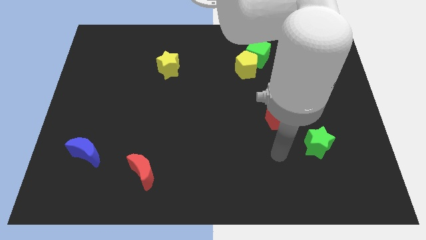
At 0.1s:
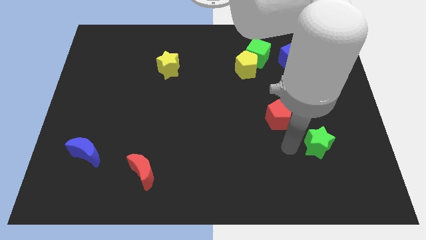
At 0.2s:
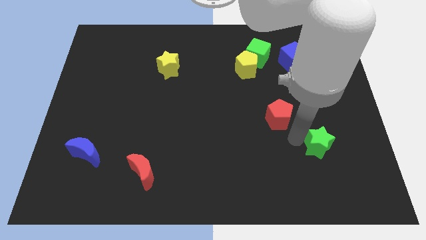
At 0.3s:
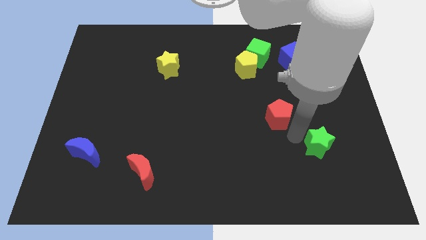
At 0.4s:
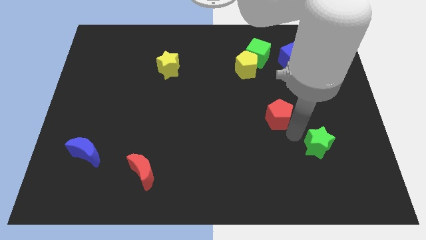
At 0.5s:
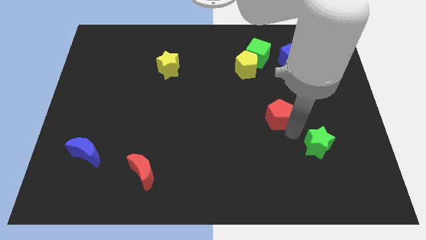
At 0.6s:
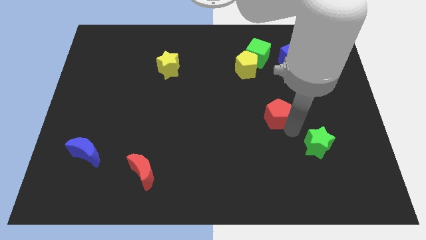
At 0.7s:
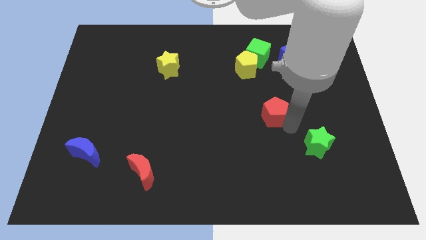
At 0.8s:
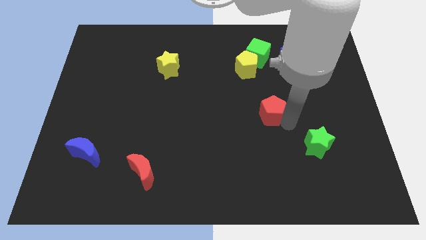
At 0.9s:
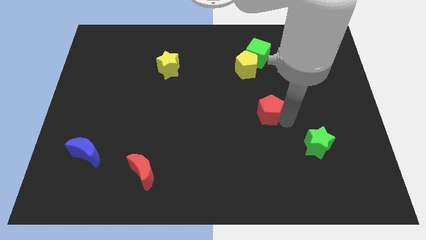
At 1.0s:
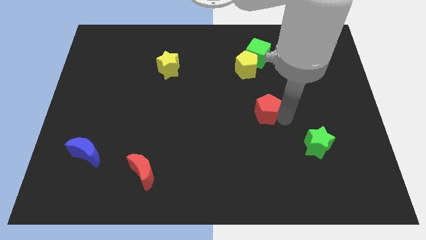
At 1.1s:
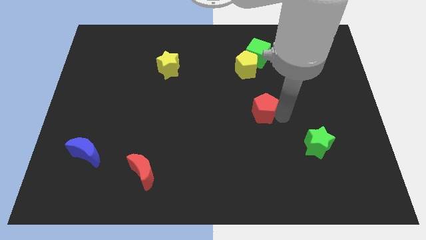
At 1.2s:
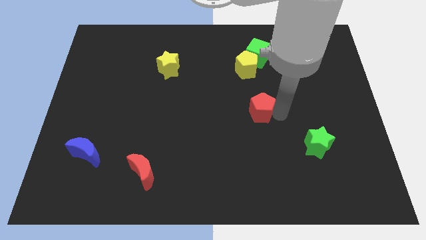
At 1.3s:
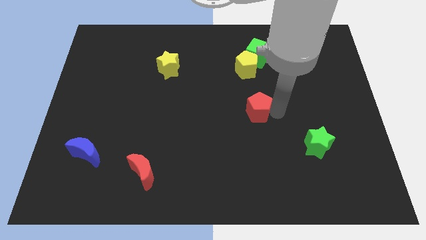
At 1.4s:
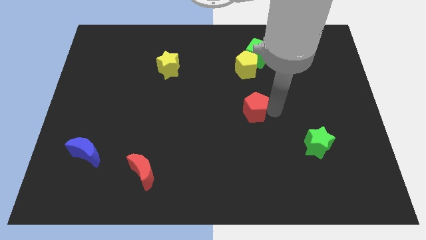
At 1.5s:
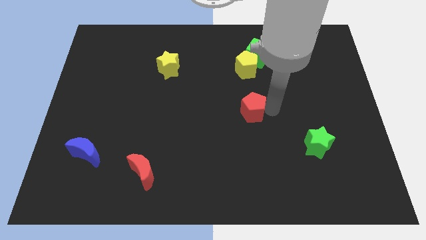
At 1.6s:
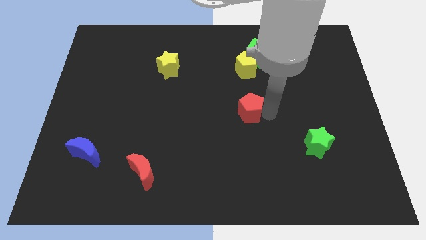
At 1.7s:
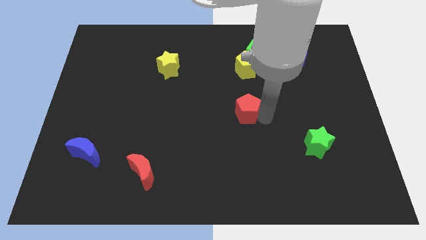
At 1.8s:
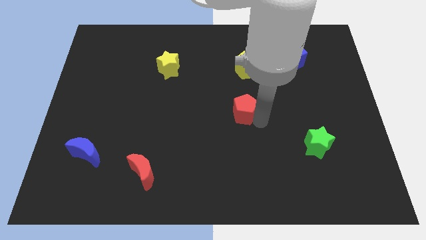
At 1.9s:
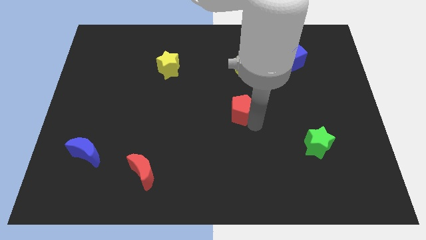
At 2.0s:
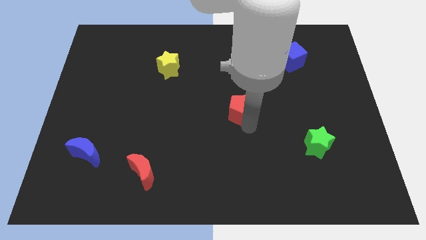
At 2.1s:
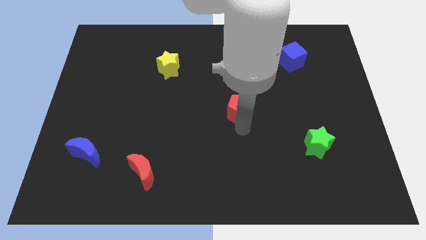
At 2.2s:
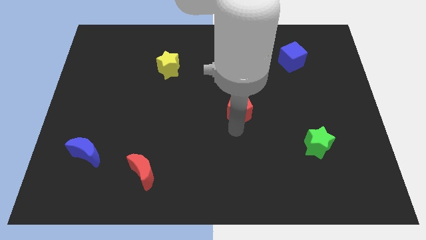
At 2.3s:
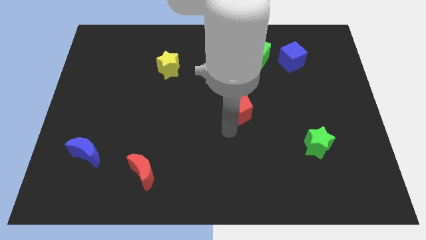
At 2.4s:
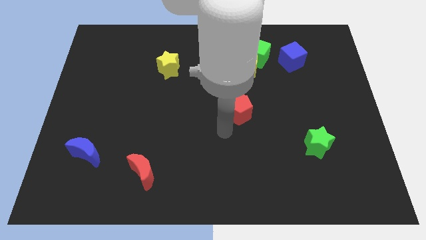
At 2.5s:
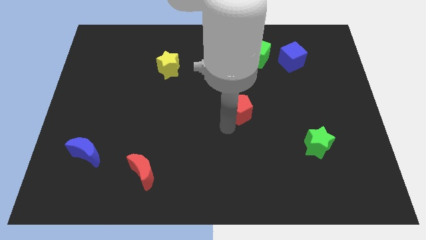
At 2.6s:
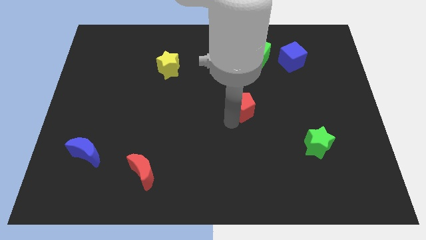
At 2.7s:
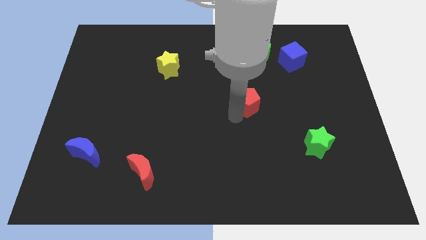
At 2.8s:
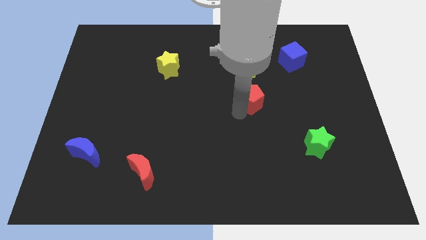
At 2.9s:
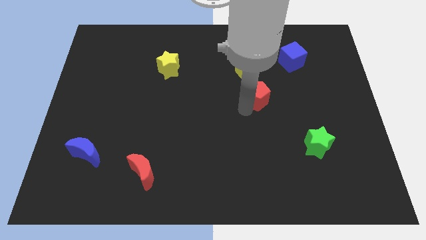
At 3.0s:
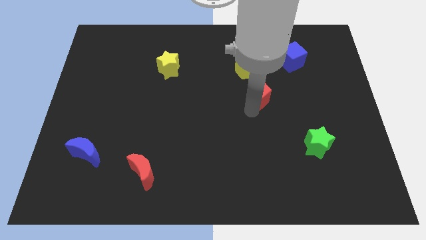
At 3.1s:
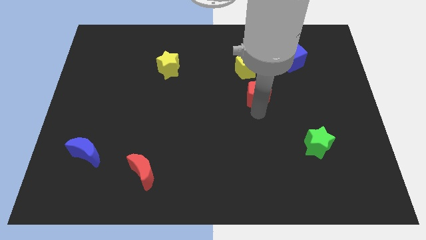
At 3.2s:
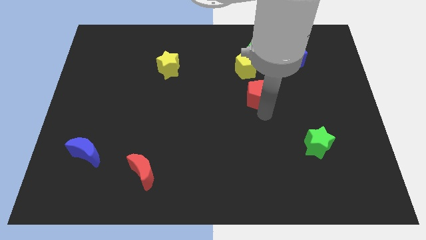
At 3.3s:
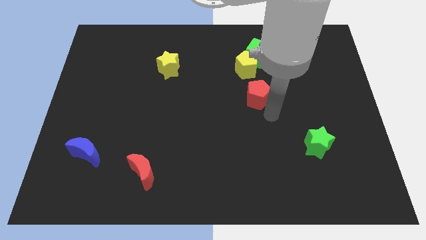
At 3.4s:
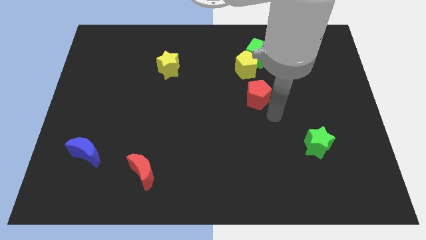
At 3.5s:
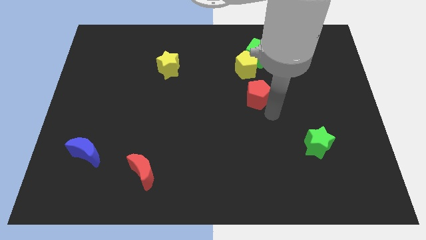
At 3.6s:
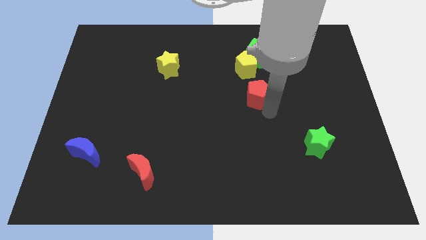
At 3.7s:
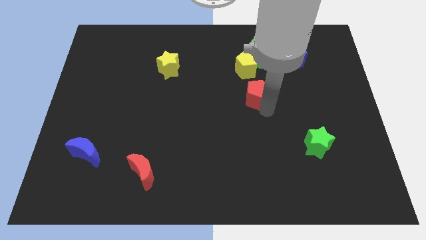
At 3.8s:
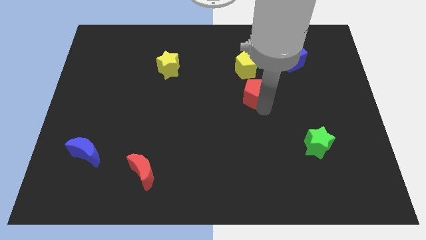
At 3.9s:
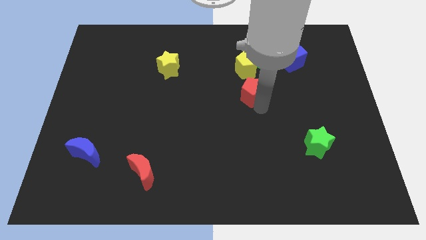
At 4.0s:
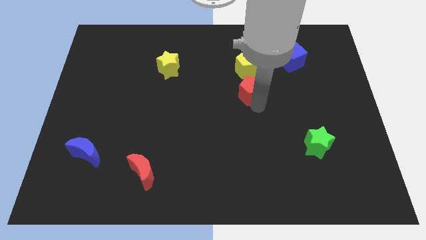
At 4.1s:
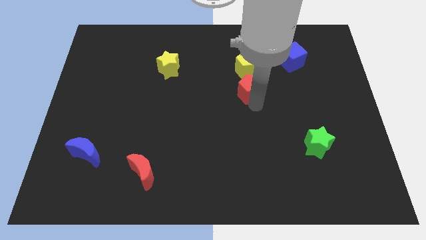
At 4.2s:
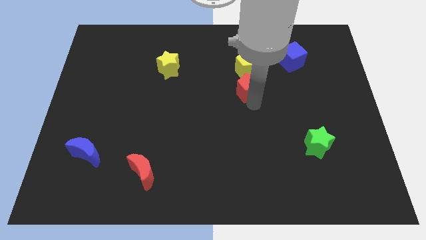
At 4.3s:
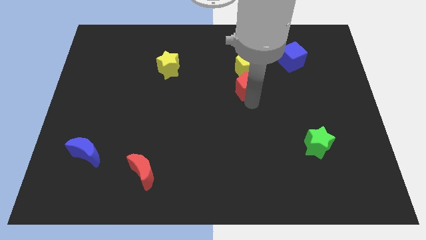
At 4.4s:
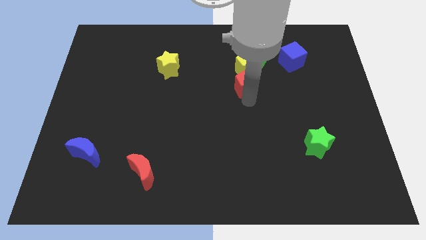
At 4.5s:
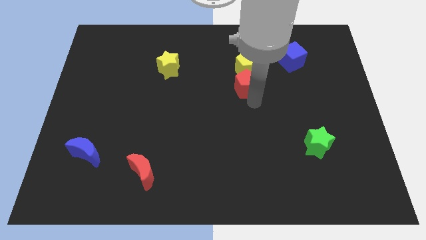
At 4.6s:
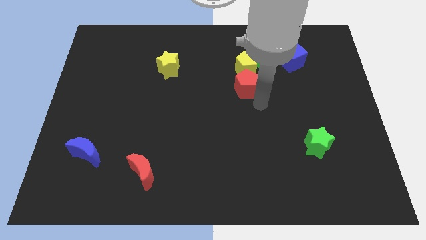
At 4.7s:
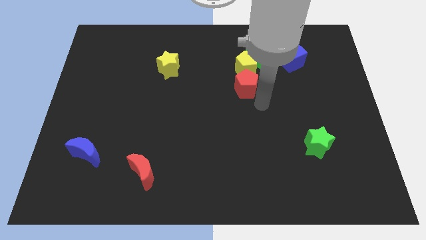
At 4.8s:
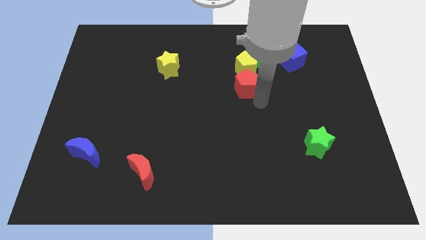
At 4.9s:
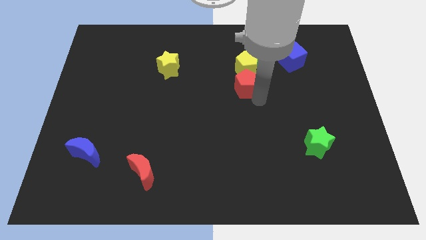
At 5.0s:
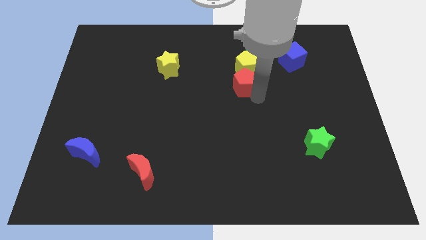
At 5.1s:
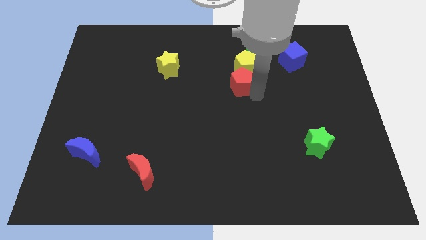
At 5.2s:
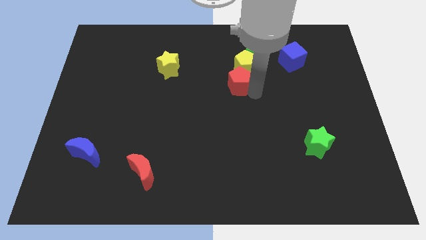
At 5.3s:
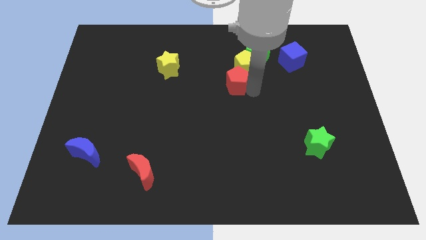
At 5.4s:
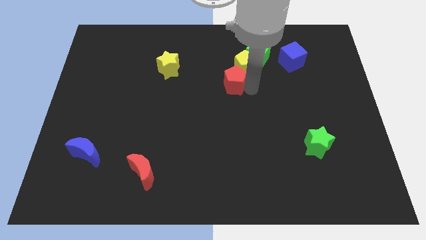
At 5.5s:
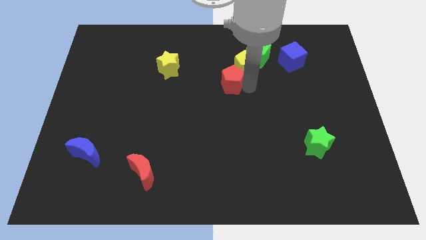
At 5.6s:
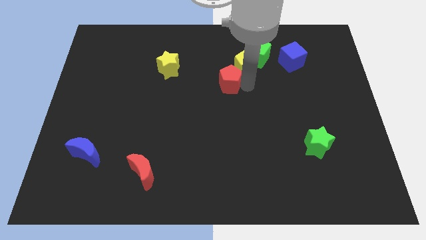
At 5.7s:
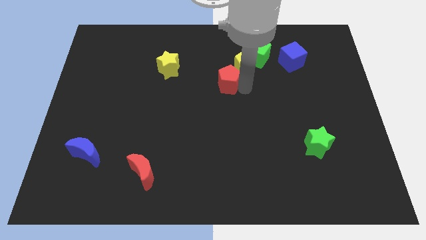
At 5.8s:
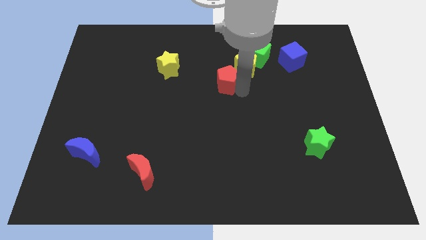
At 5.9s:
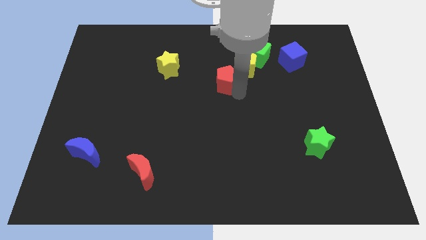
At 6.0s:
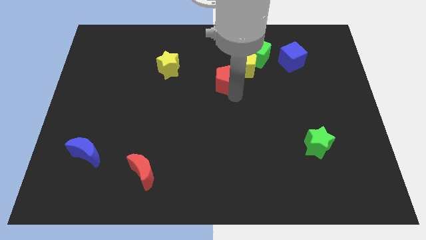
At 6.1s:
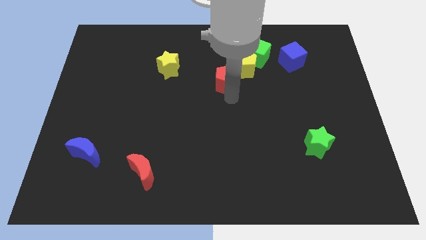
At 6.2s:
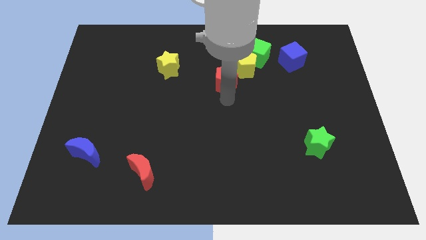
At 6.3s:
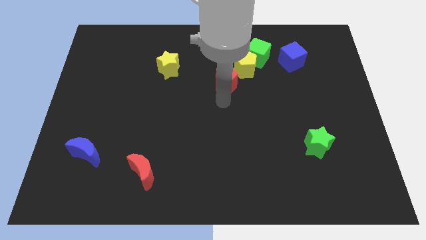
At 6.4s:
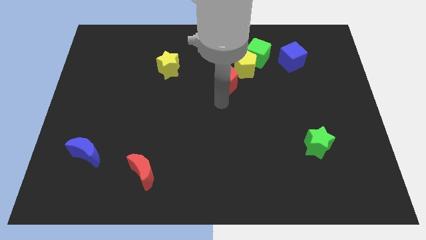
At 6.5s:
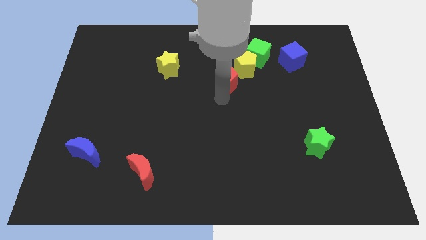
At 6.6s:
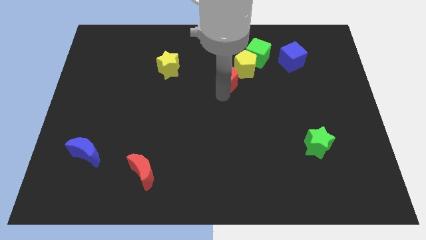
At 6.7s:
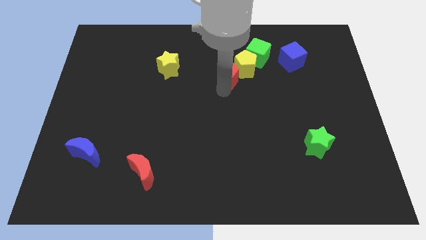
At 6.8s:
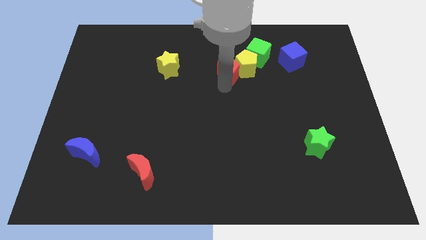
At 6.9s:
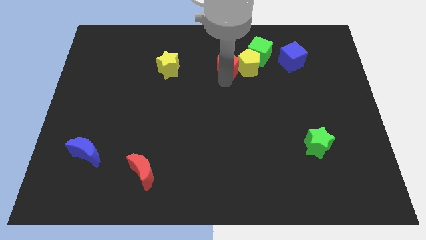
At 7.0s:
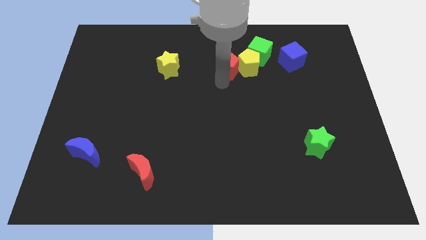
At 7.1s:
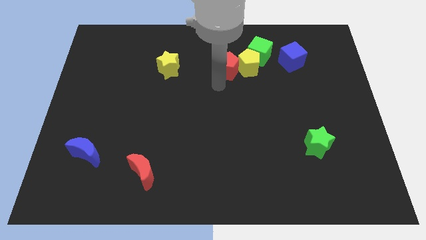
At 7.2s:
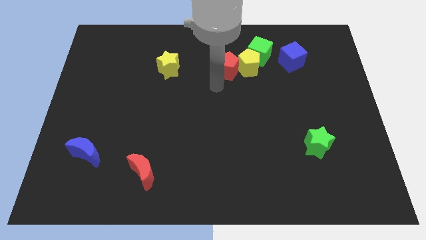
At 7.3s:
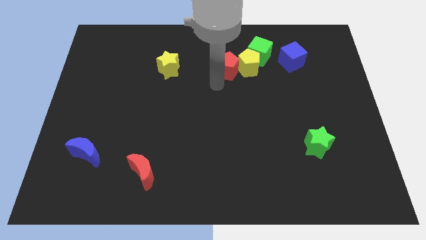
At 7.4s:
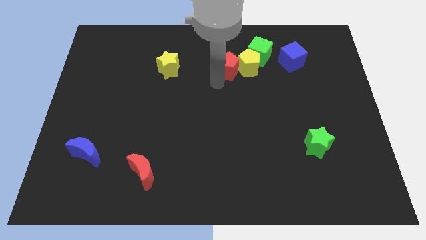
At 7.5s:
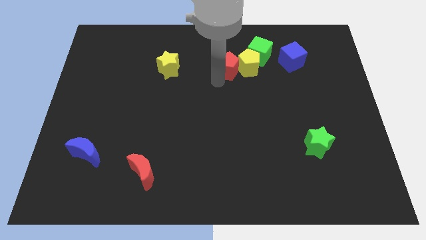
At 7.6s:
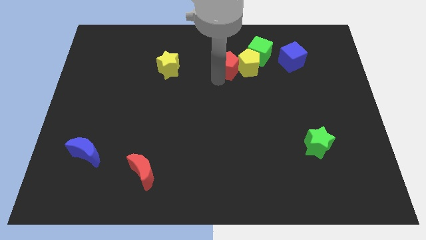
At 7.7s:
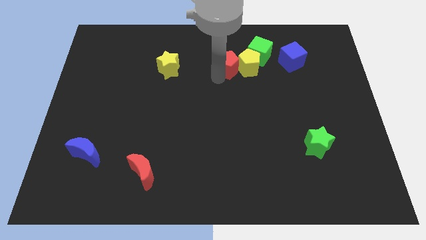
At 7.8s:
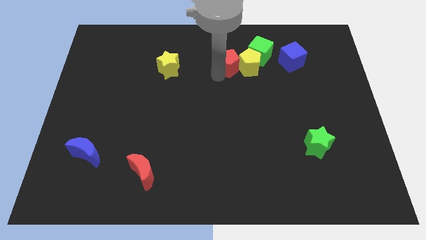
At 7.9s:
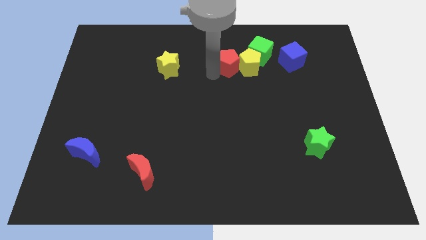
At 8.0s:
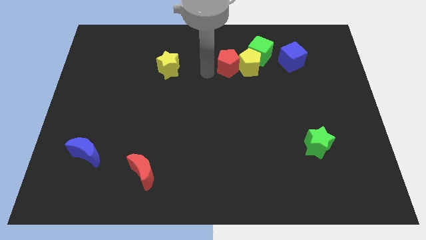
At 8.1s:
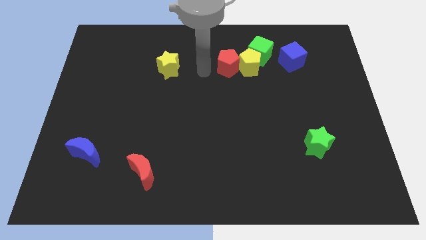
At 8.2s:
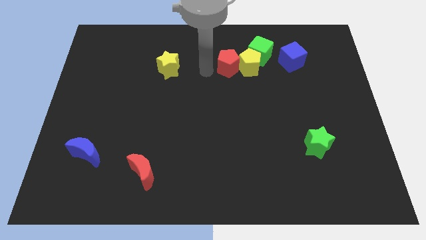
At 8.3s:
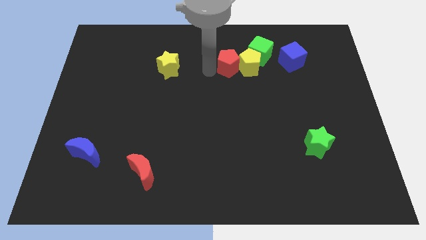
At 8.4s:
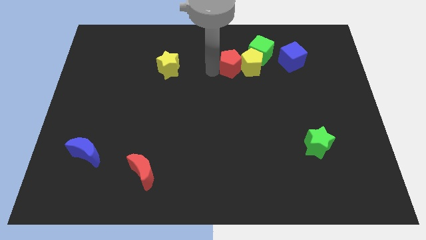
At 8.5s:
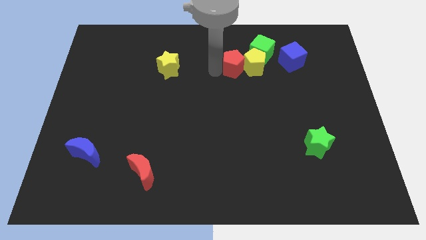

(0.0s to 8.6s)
move the red pentagon to the left side of the blue cube
